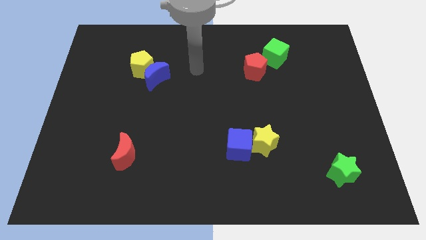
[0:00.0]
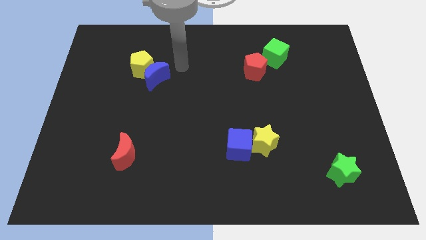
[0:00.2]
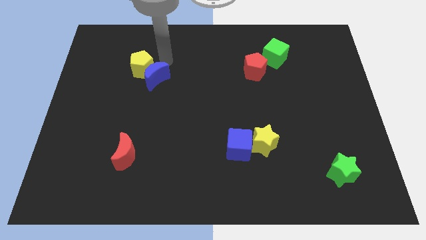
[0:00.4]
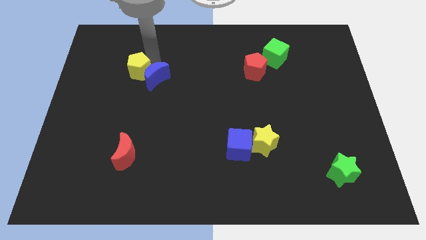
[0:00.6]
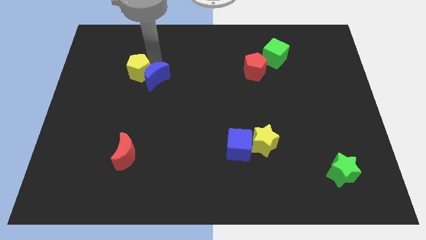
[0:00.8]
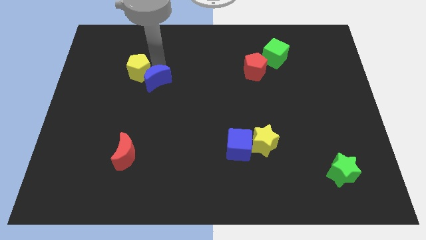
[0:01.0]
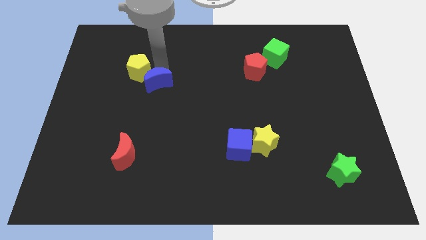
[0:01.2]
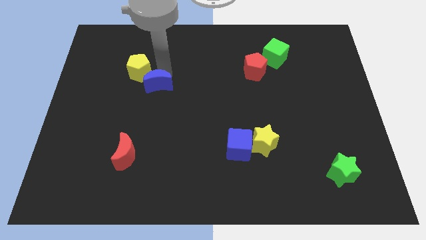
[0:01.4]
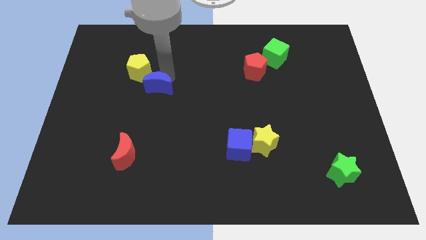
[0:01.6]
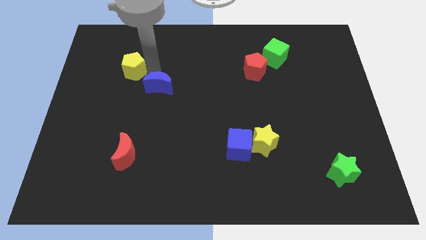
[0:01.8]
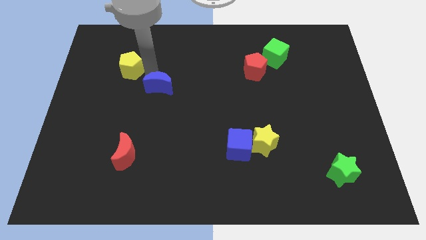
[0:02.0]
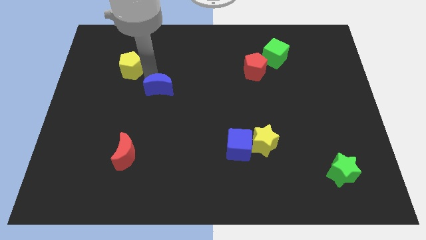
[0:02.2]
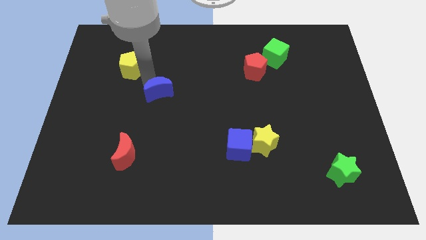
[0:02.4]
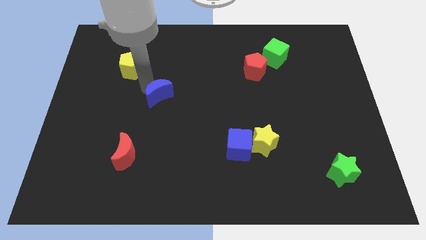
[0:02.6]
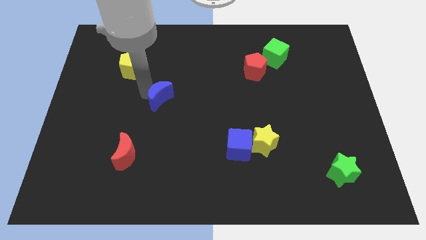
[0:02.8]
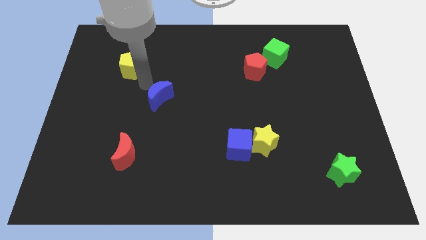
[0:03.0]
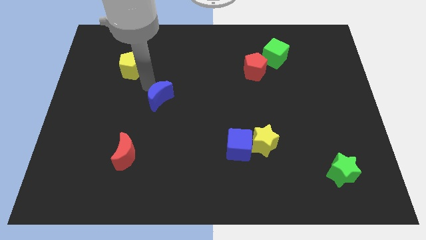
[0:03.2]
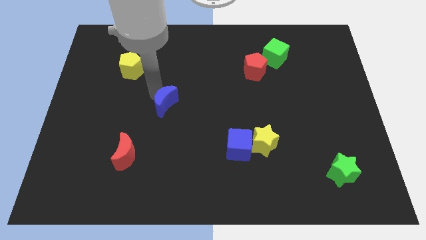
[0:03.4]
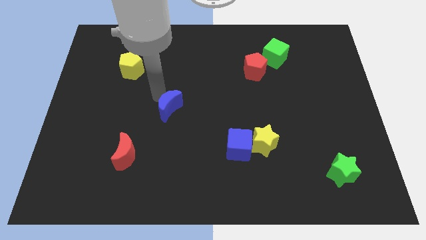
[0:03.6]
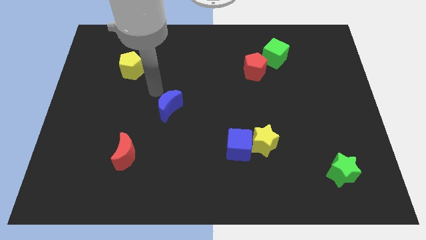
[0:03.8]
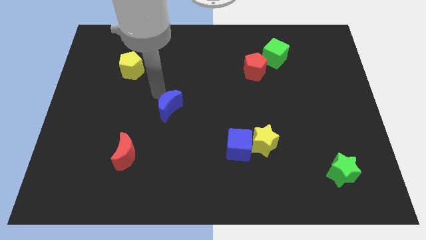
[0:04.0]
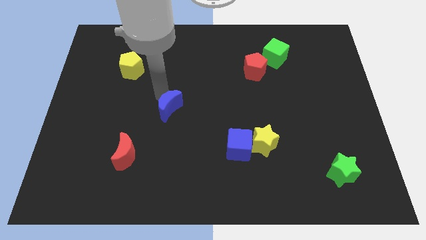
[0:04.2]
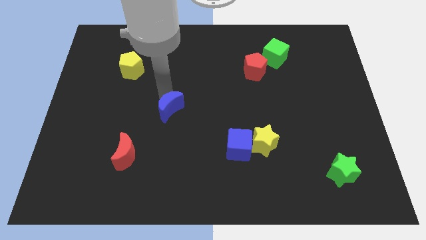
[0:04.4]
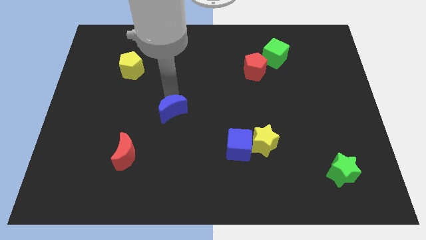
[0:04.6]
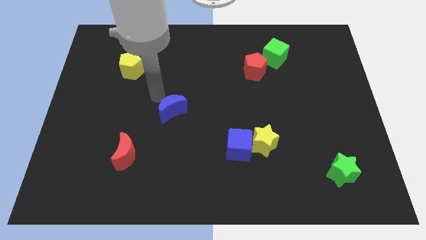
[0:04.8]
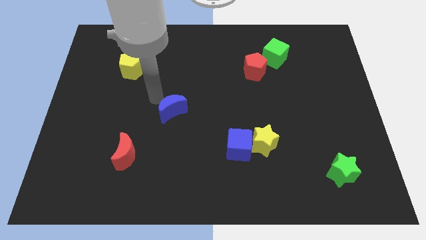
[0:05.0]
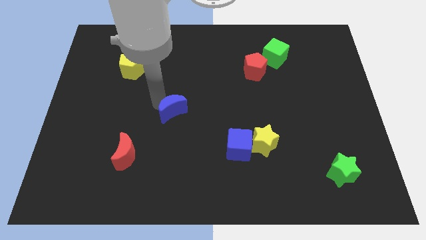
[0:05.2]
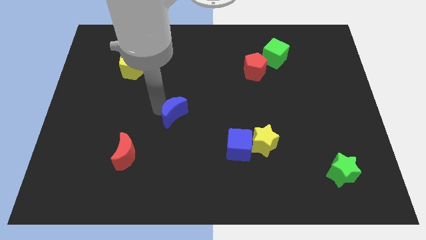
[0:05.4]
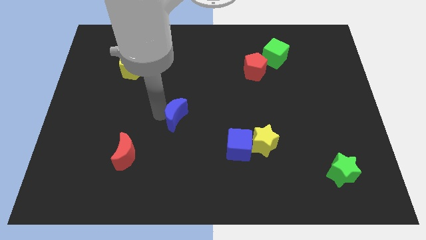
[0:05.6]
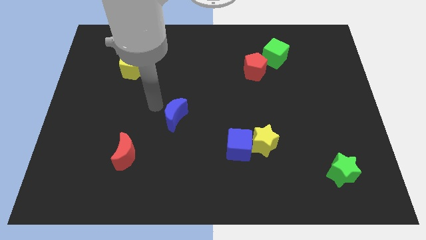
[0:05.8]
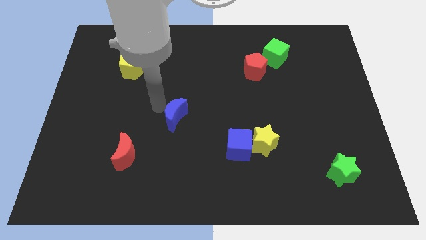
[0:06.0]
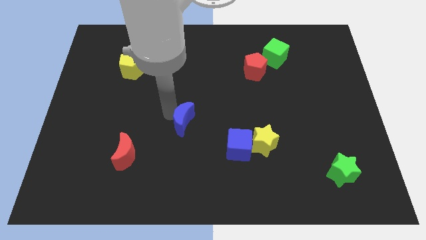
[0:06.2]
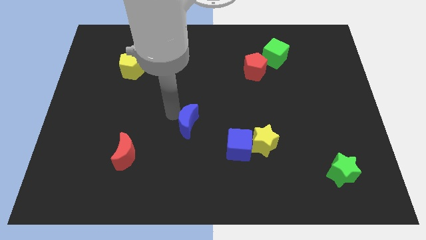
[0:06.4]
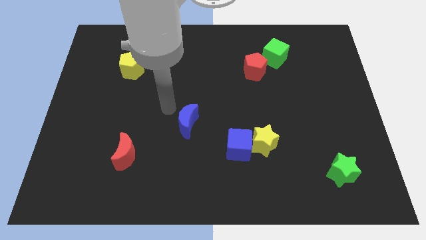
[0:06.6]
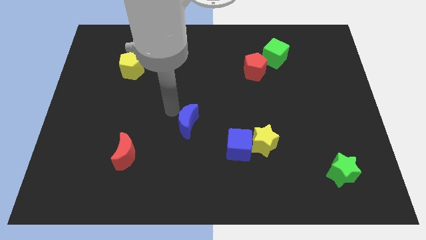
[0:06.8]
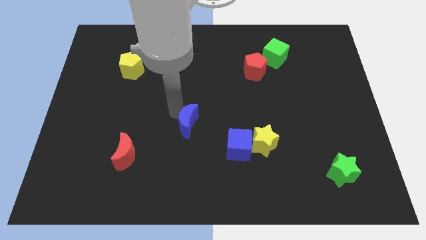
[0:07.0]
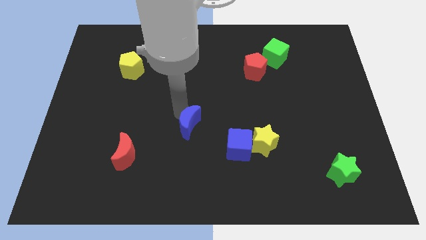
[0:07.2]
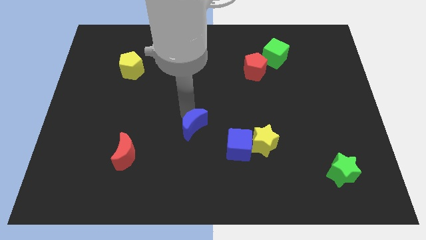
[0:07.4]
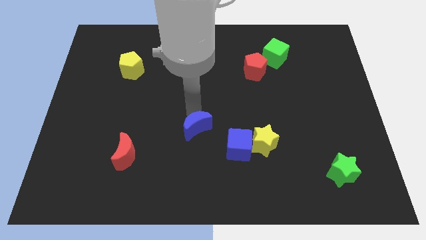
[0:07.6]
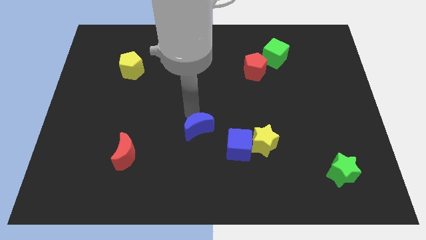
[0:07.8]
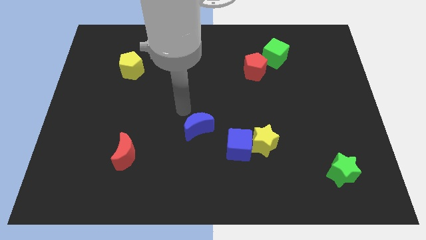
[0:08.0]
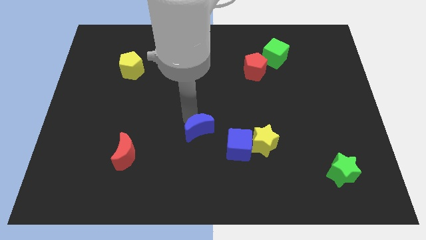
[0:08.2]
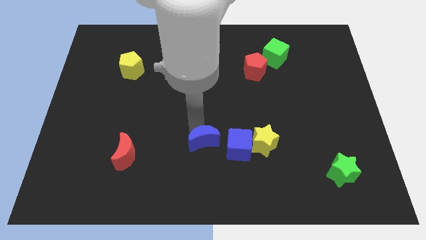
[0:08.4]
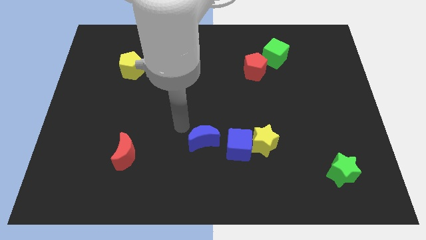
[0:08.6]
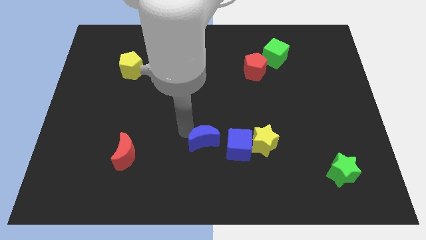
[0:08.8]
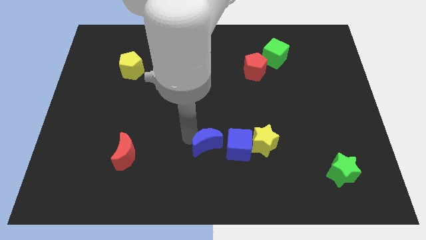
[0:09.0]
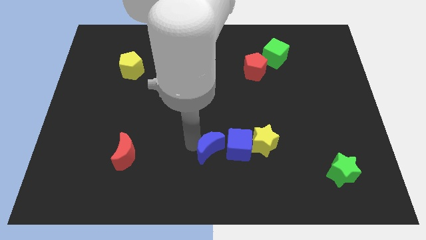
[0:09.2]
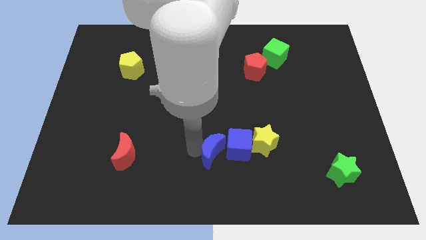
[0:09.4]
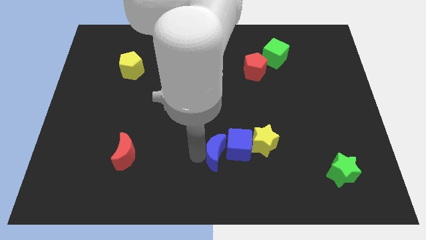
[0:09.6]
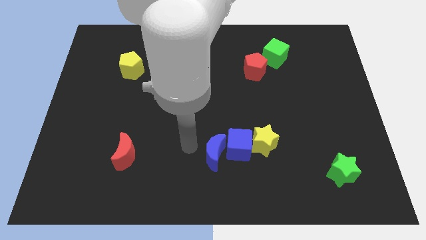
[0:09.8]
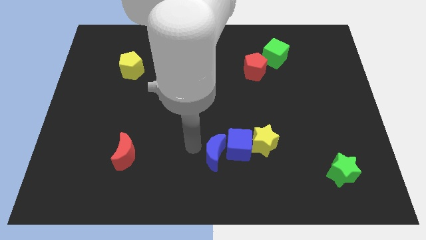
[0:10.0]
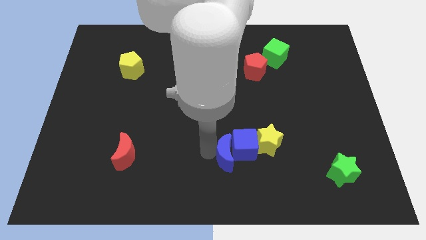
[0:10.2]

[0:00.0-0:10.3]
push the blue moon to the bottom left of the yellow star

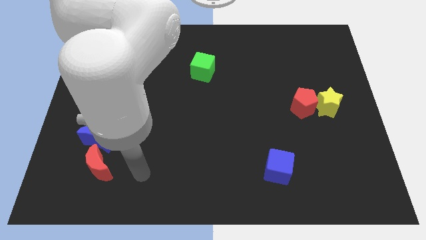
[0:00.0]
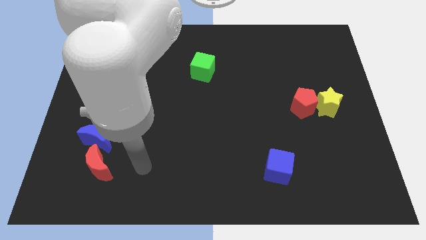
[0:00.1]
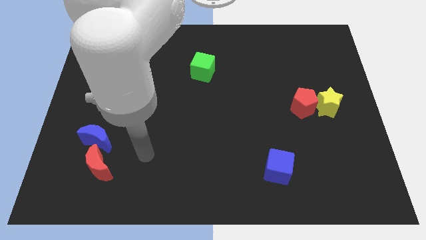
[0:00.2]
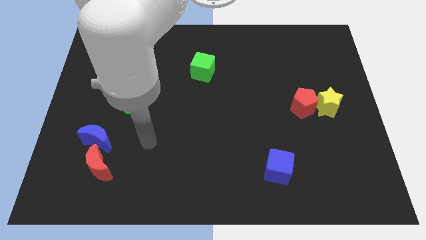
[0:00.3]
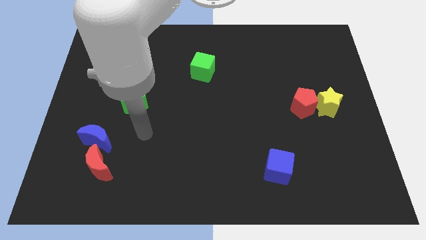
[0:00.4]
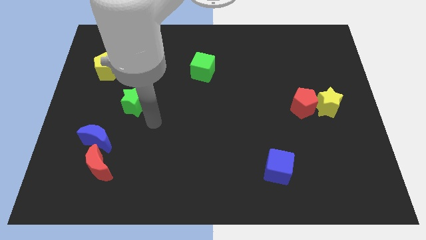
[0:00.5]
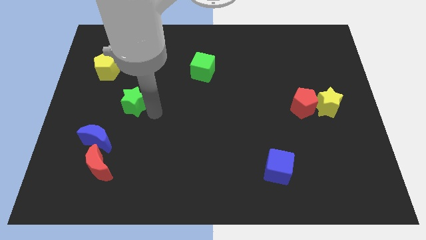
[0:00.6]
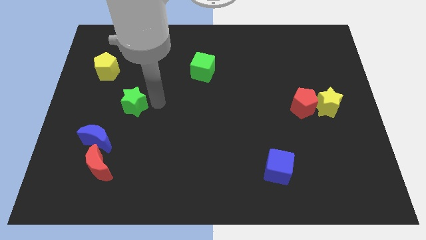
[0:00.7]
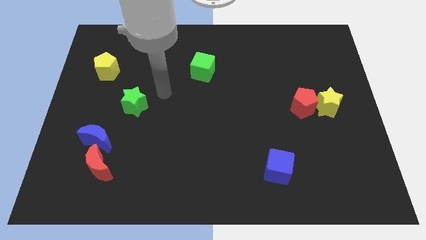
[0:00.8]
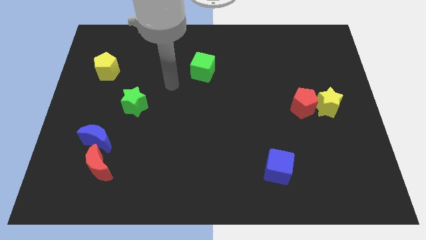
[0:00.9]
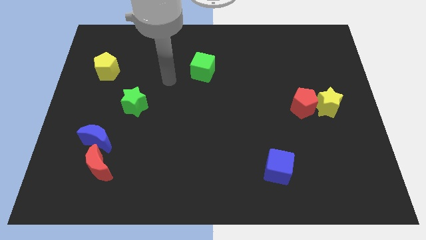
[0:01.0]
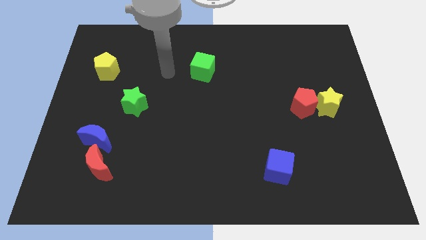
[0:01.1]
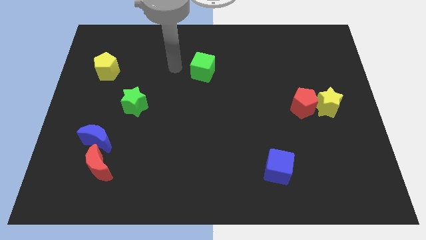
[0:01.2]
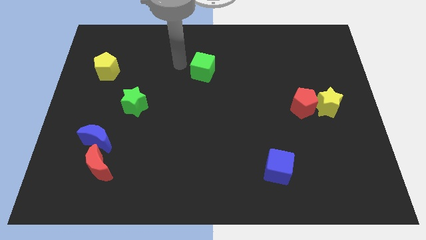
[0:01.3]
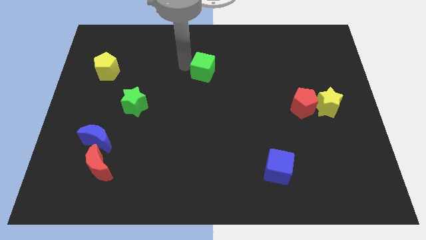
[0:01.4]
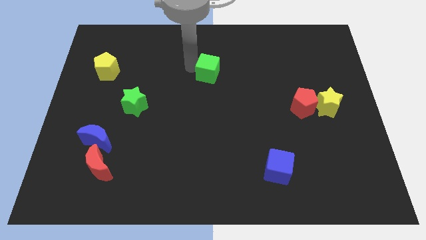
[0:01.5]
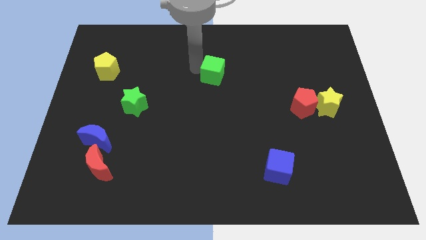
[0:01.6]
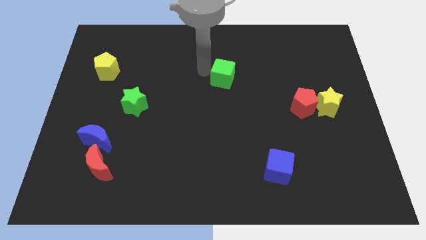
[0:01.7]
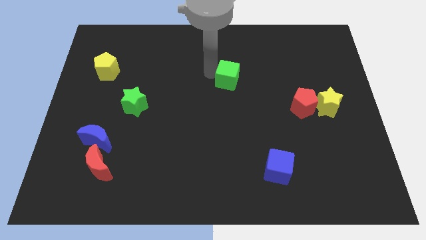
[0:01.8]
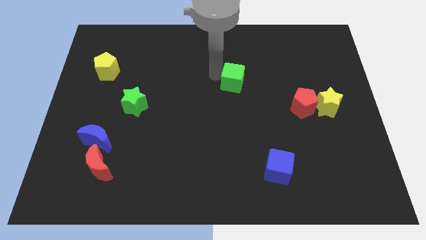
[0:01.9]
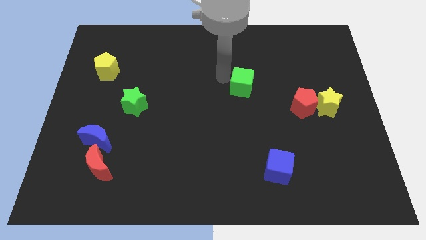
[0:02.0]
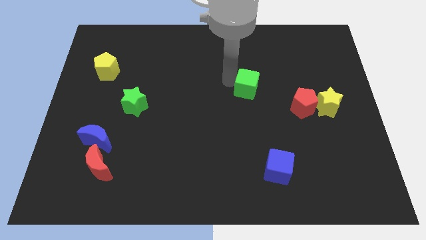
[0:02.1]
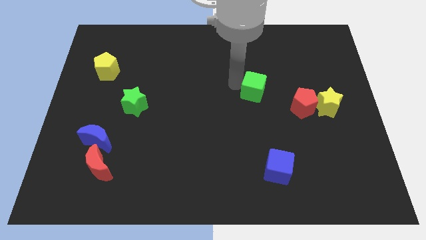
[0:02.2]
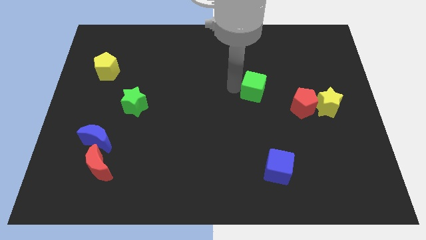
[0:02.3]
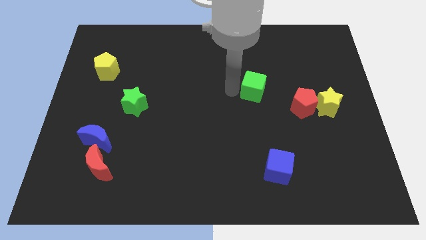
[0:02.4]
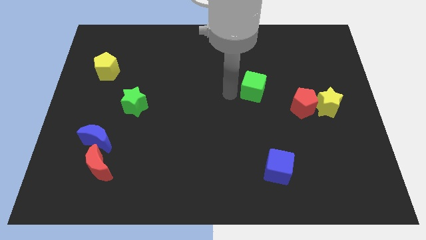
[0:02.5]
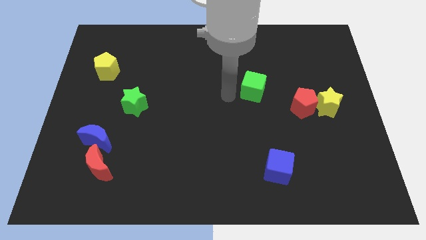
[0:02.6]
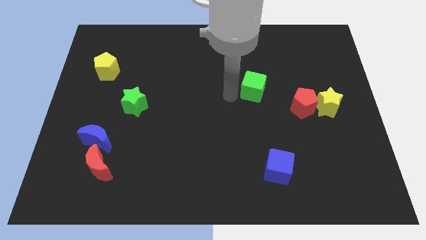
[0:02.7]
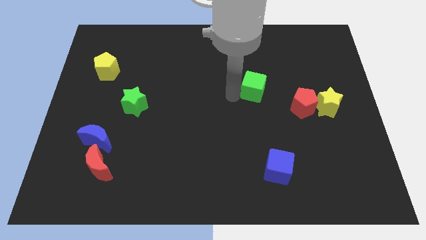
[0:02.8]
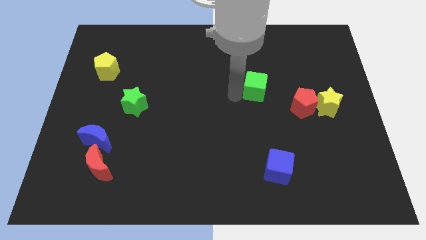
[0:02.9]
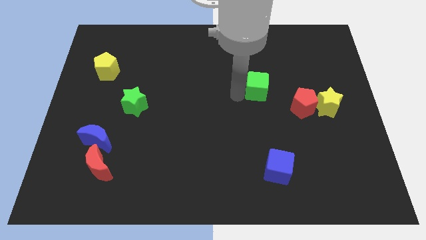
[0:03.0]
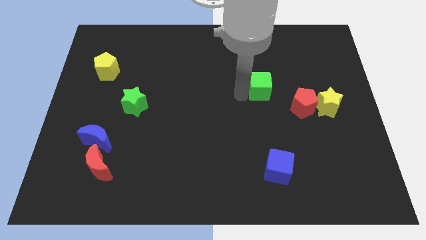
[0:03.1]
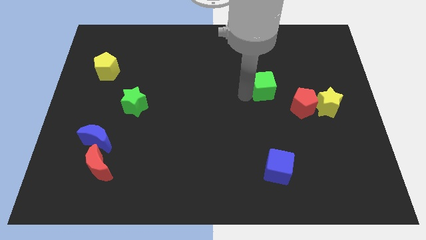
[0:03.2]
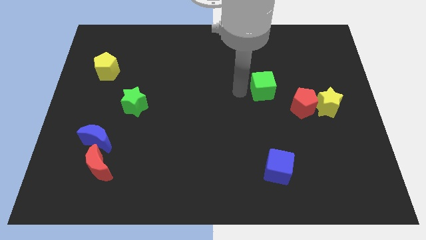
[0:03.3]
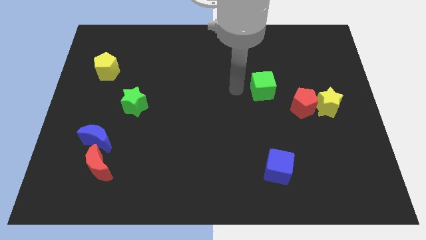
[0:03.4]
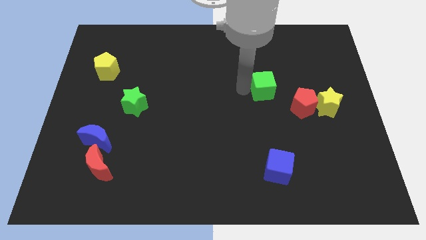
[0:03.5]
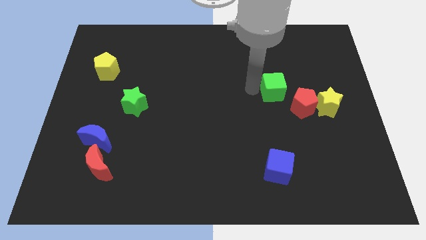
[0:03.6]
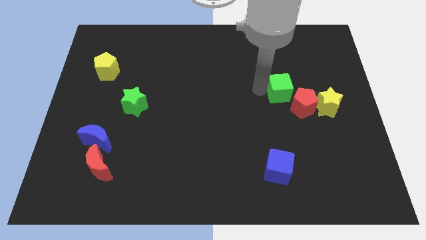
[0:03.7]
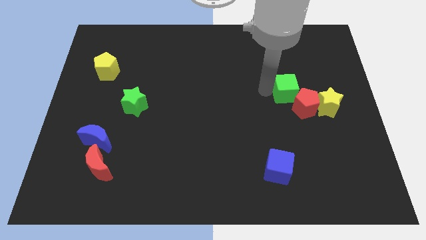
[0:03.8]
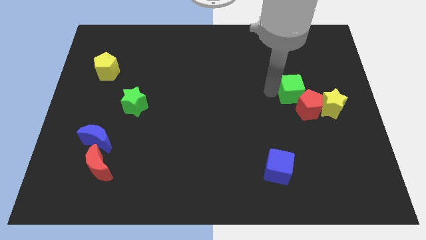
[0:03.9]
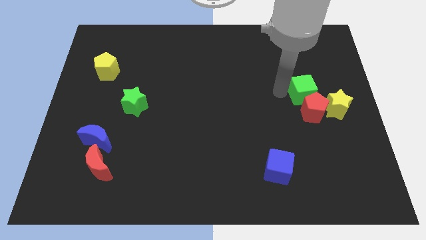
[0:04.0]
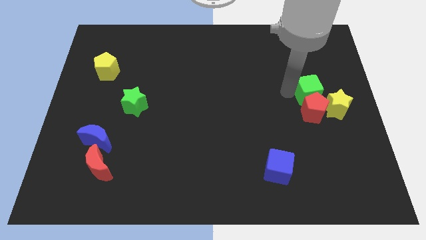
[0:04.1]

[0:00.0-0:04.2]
move the green cube diagonally up and to the right of the red pentagon
